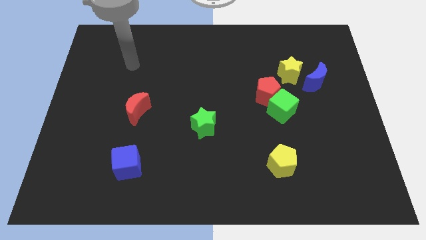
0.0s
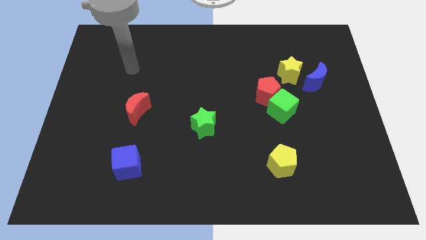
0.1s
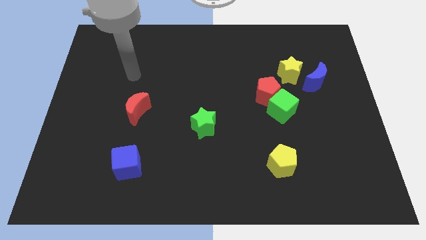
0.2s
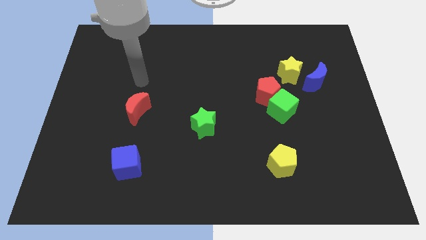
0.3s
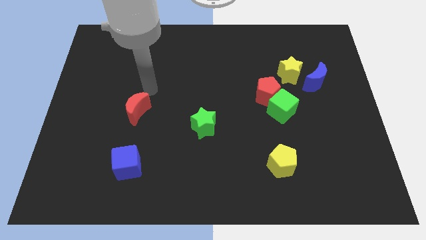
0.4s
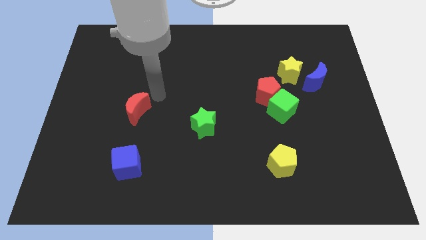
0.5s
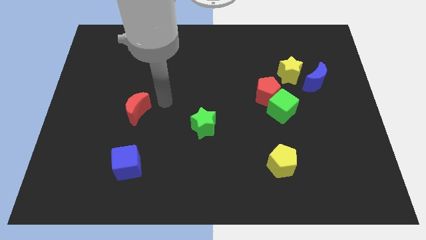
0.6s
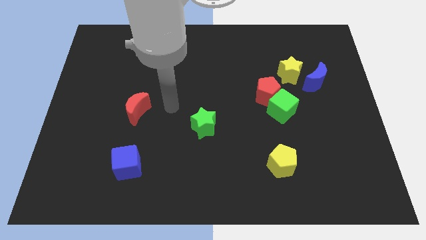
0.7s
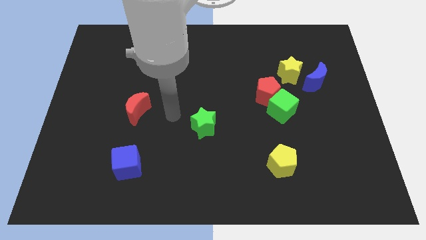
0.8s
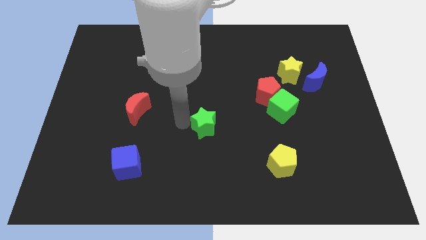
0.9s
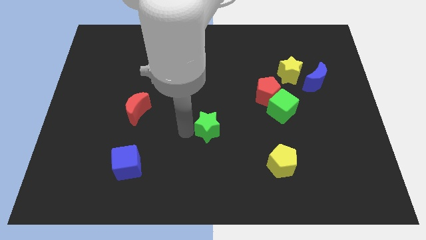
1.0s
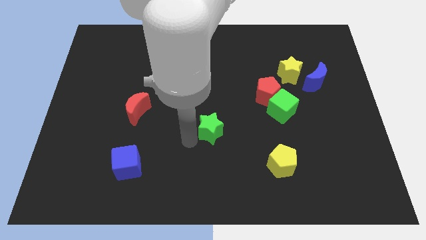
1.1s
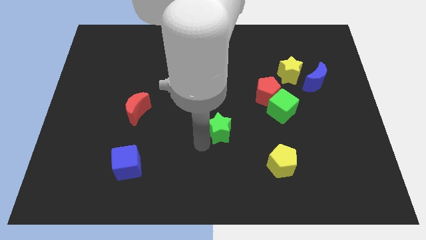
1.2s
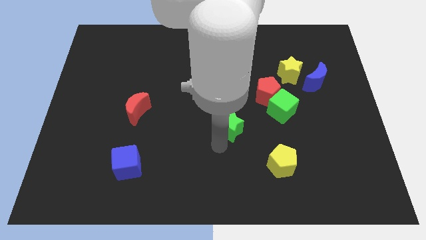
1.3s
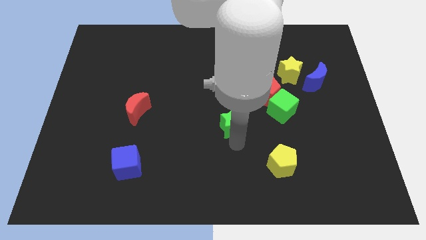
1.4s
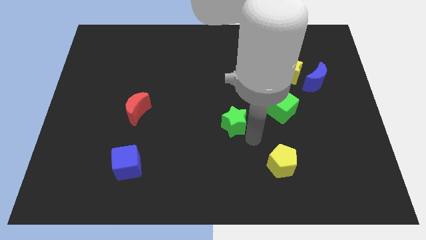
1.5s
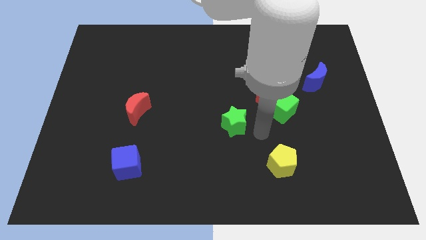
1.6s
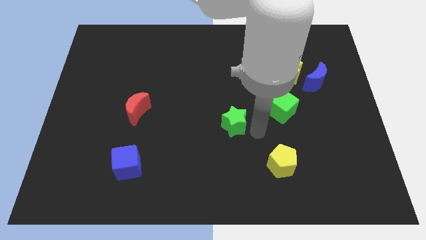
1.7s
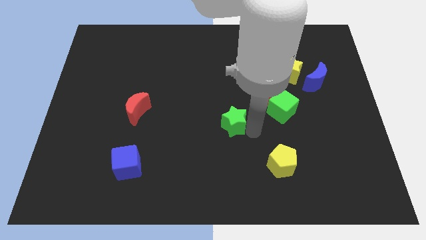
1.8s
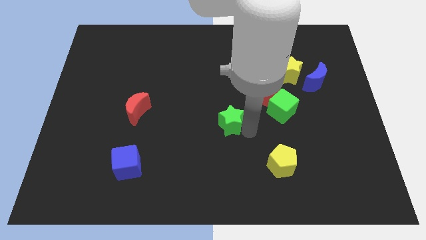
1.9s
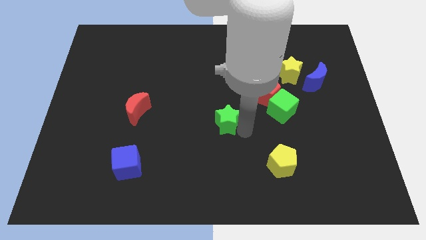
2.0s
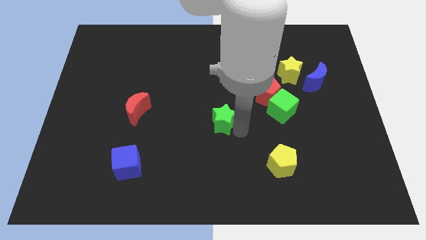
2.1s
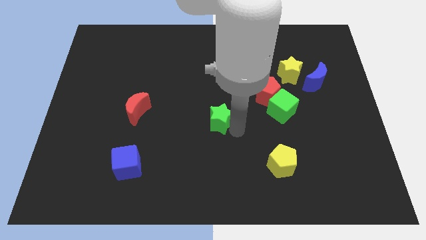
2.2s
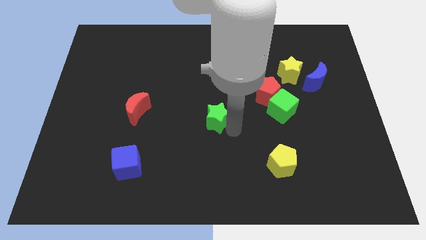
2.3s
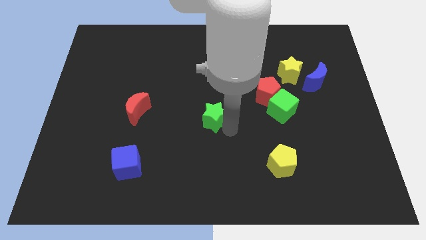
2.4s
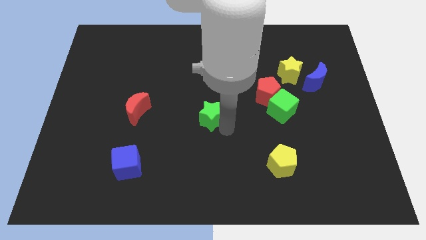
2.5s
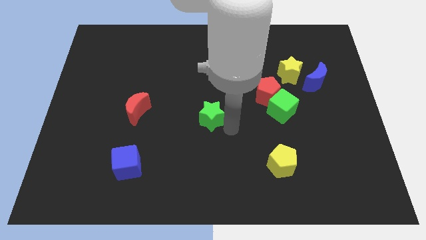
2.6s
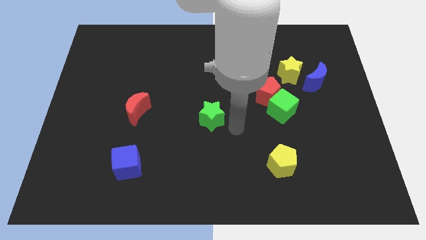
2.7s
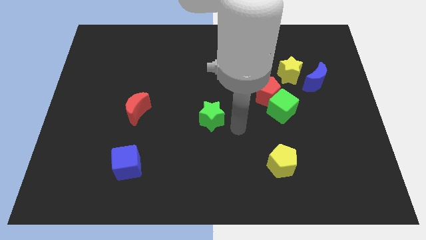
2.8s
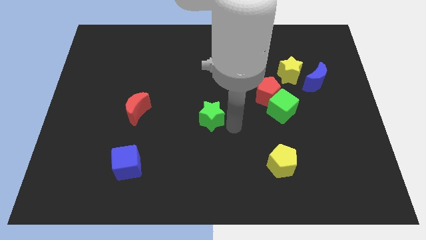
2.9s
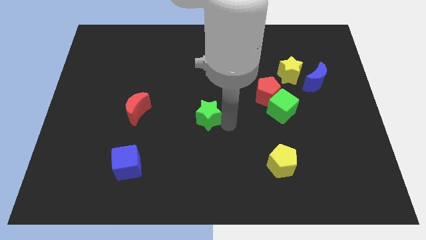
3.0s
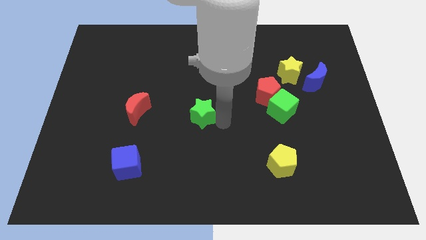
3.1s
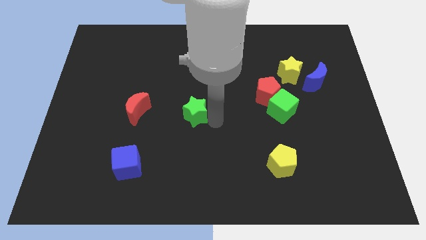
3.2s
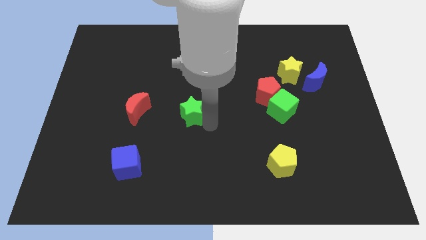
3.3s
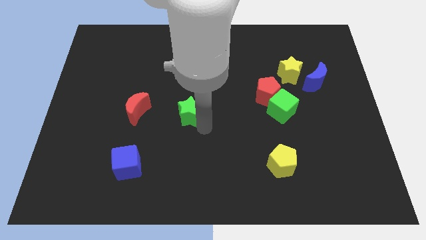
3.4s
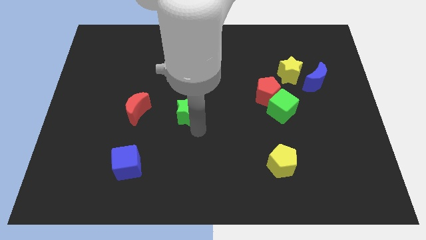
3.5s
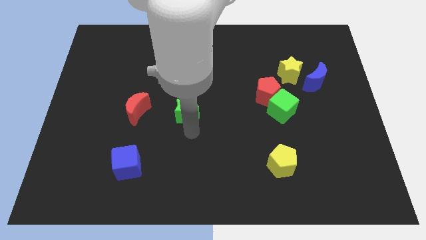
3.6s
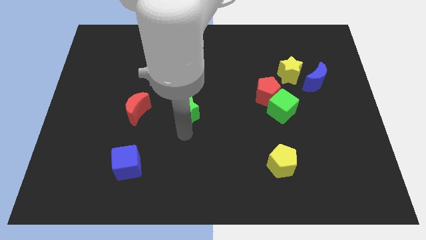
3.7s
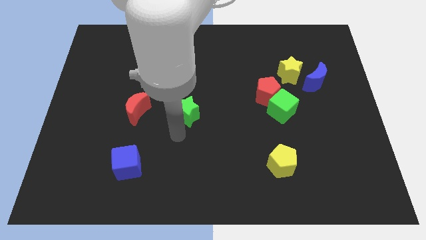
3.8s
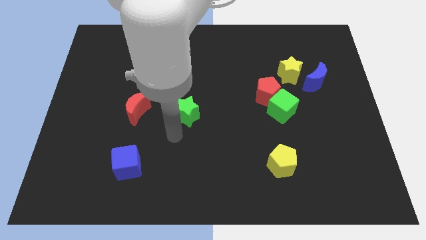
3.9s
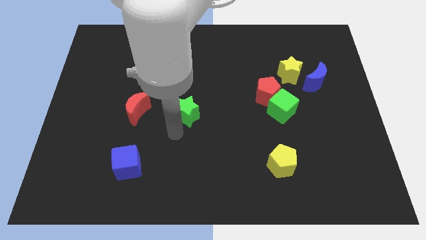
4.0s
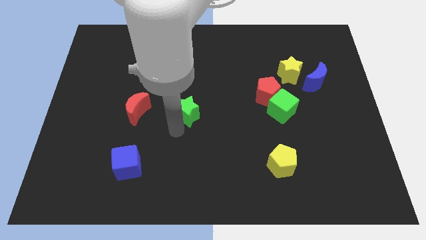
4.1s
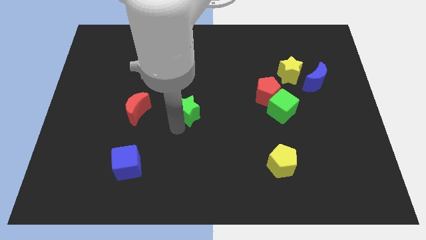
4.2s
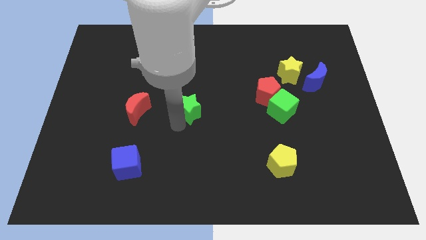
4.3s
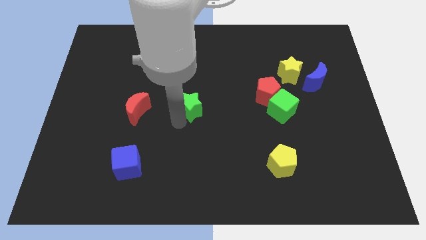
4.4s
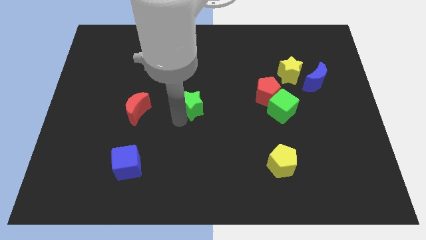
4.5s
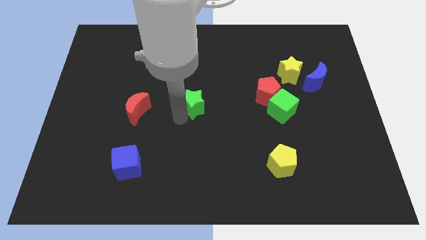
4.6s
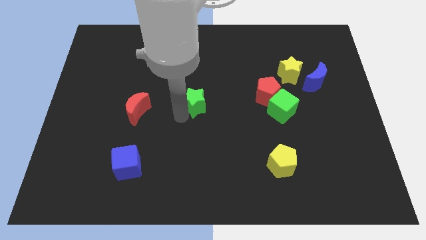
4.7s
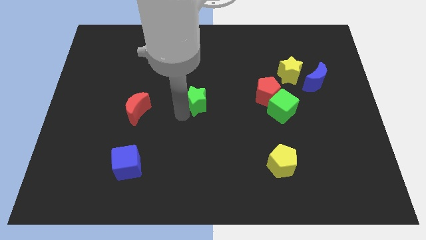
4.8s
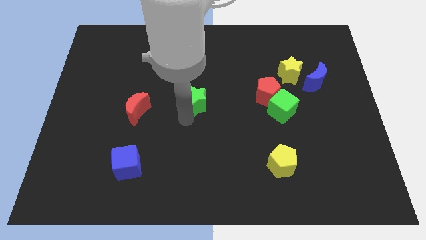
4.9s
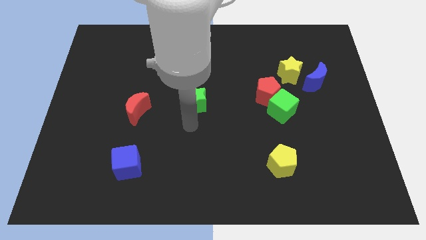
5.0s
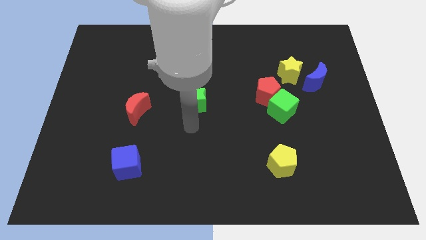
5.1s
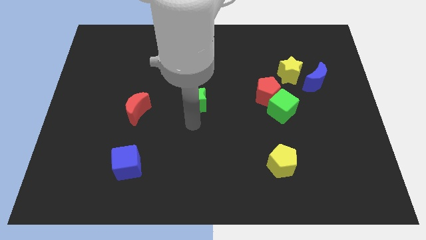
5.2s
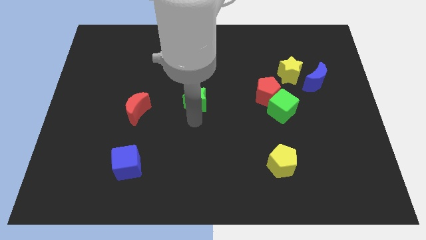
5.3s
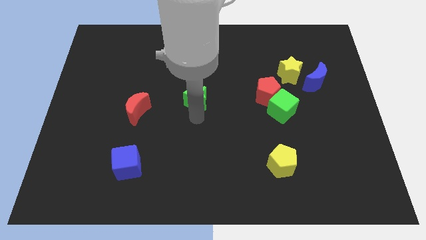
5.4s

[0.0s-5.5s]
slide the green star upwards a bit

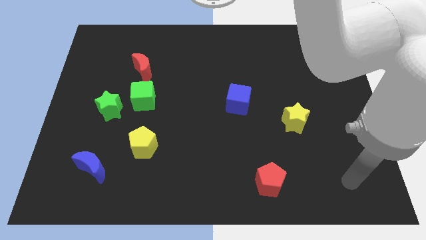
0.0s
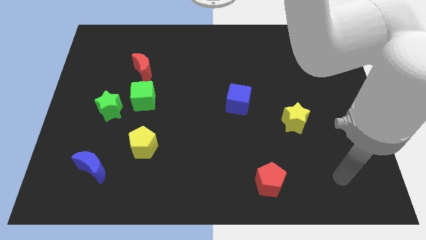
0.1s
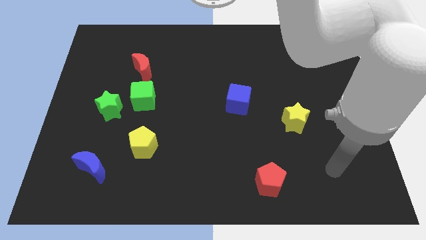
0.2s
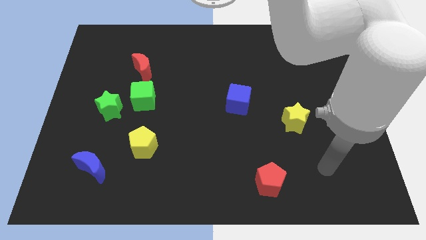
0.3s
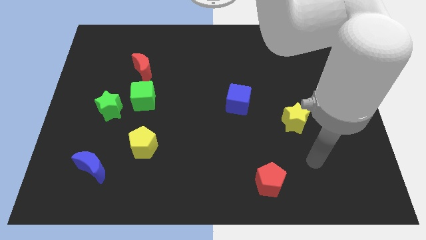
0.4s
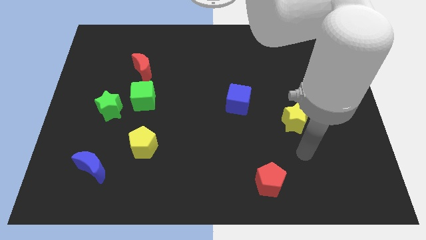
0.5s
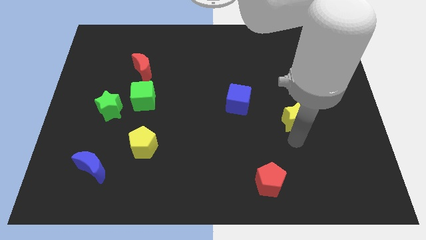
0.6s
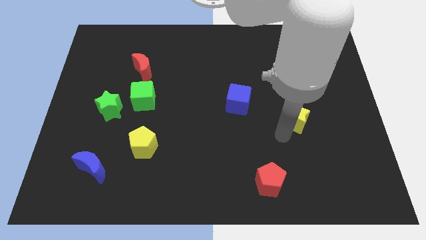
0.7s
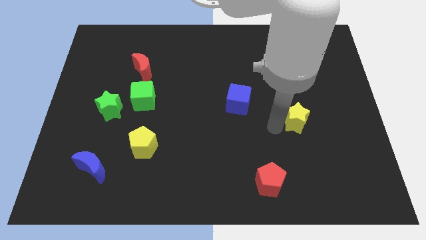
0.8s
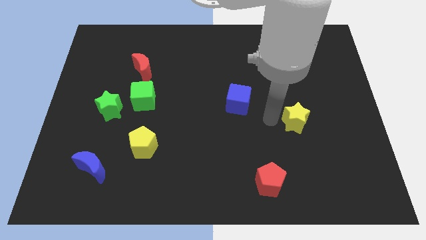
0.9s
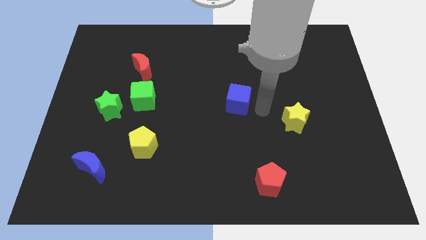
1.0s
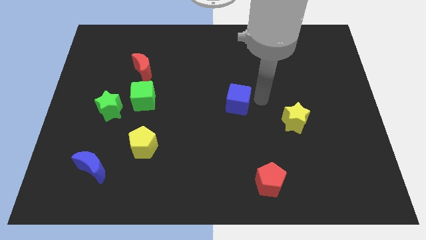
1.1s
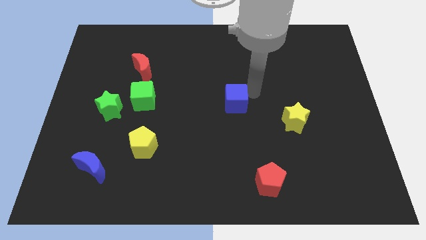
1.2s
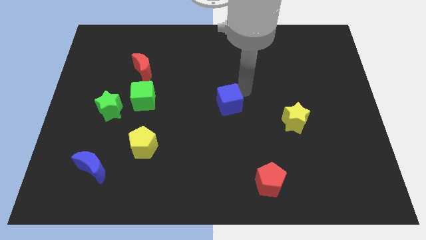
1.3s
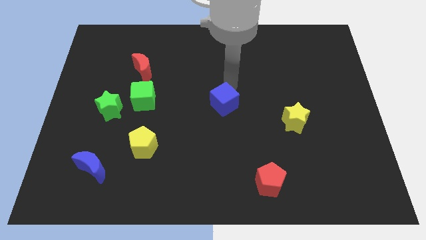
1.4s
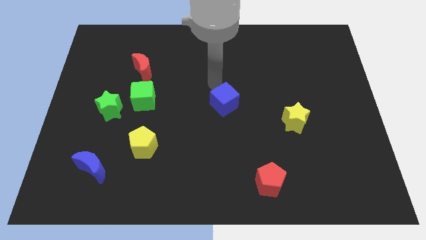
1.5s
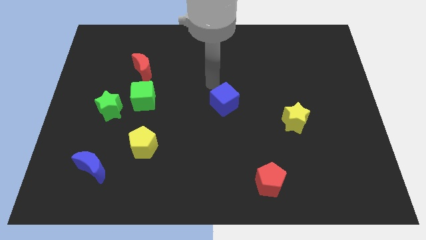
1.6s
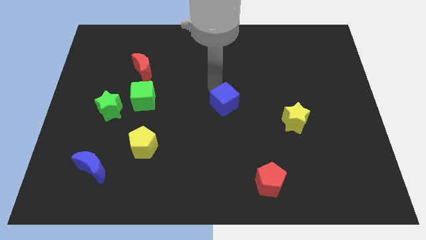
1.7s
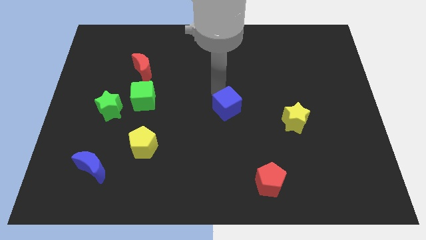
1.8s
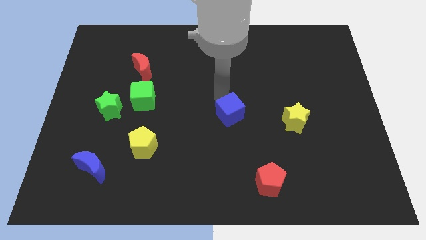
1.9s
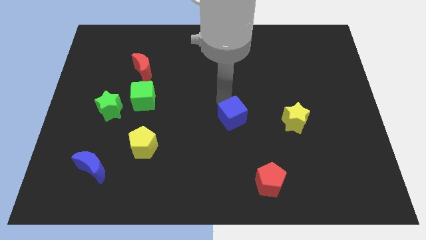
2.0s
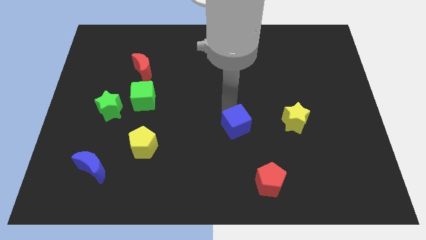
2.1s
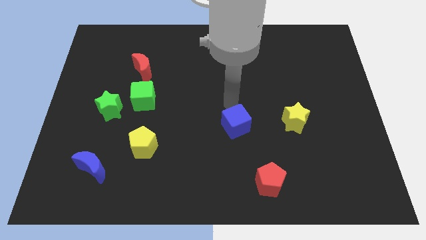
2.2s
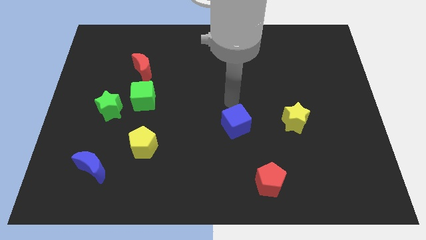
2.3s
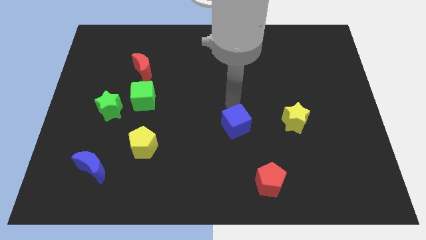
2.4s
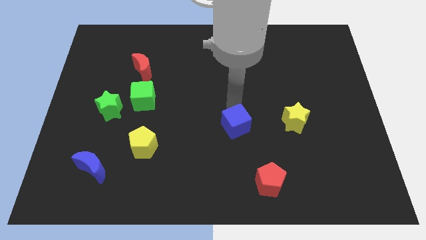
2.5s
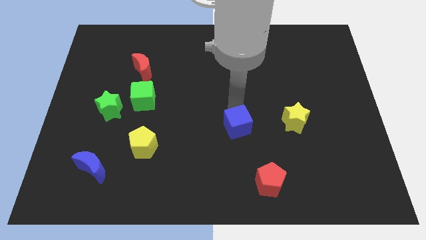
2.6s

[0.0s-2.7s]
slide the blue cube downwards somewhat
